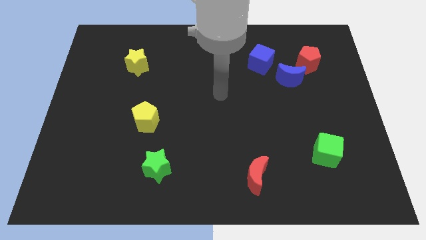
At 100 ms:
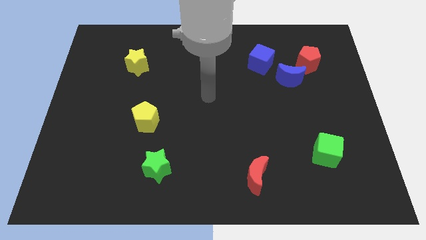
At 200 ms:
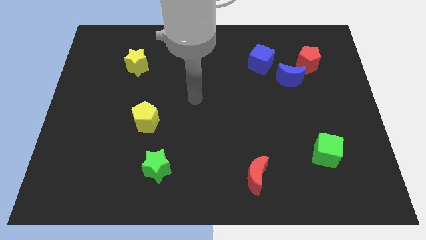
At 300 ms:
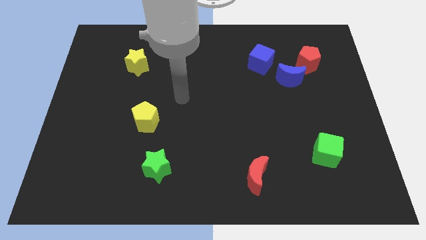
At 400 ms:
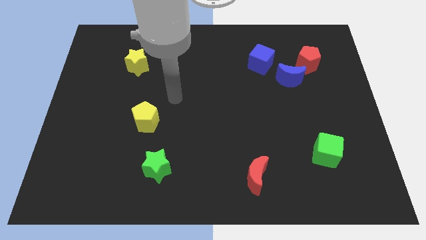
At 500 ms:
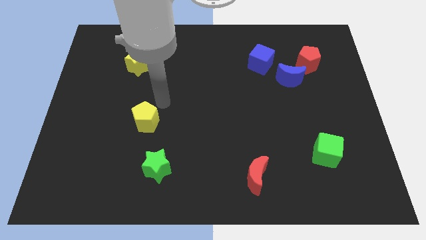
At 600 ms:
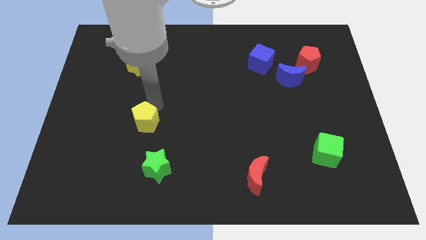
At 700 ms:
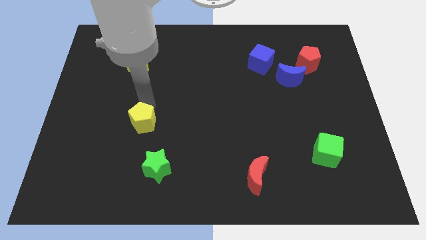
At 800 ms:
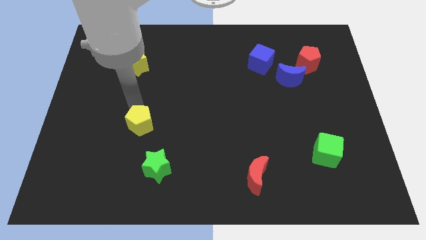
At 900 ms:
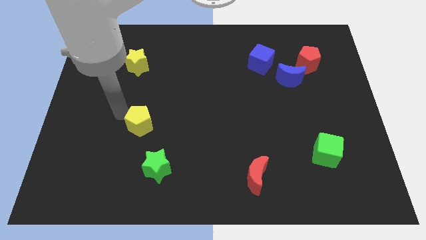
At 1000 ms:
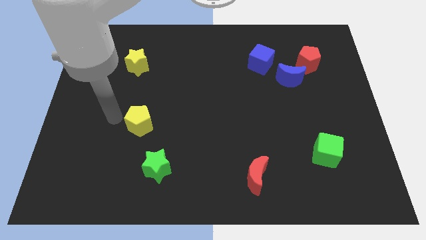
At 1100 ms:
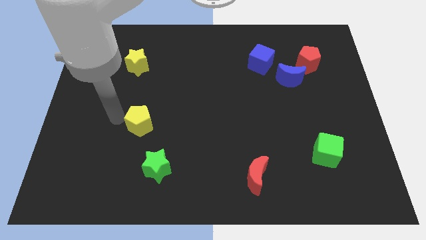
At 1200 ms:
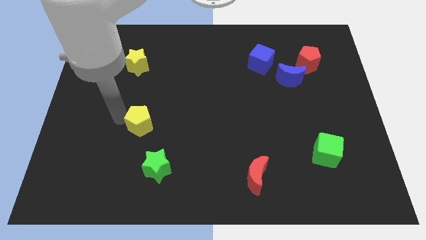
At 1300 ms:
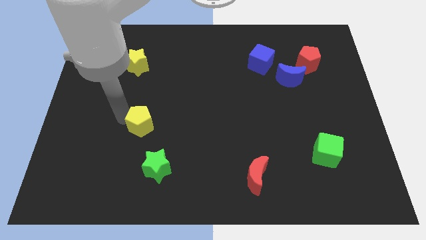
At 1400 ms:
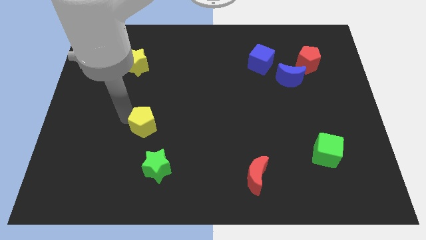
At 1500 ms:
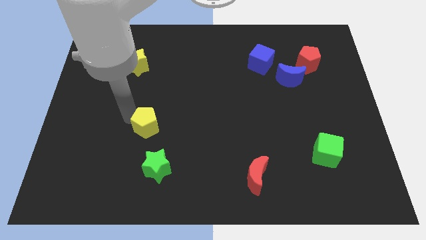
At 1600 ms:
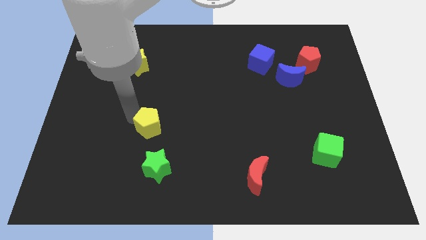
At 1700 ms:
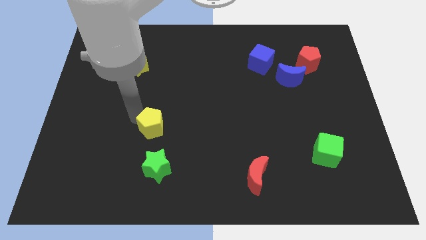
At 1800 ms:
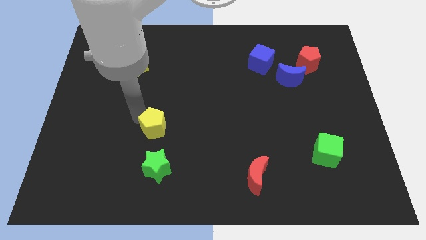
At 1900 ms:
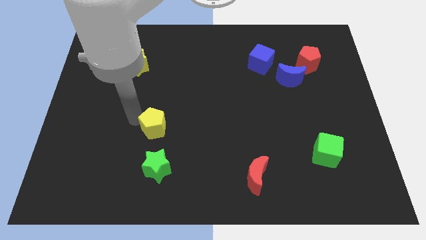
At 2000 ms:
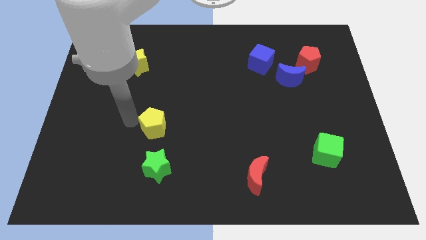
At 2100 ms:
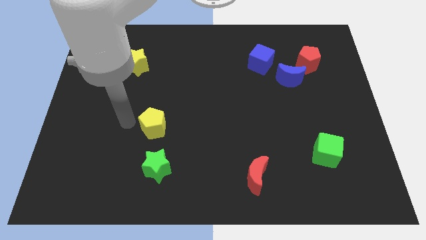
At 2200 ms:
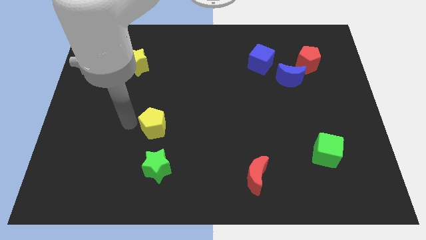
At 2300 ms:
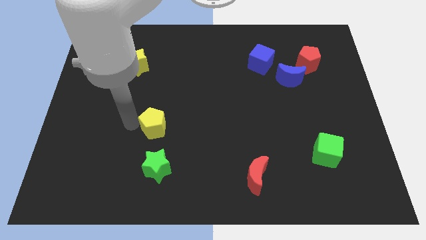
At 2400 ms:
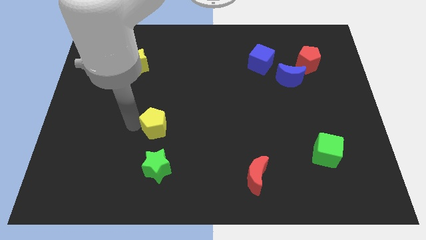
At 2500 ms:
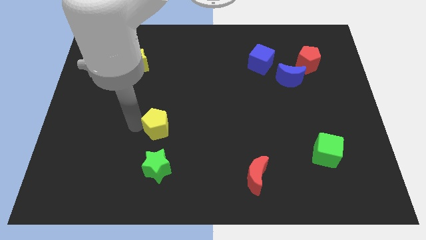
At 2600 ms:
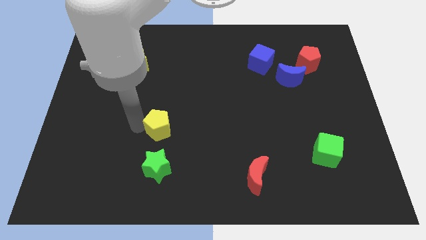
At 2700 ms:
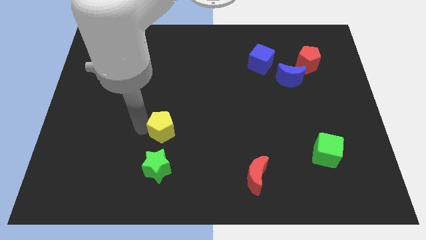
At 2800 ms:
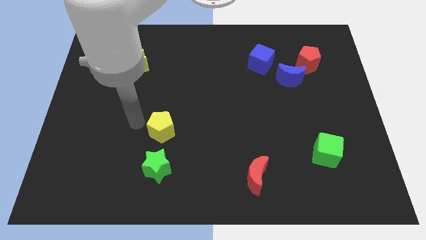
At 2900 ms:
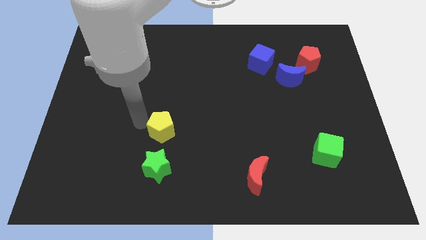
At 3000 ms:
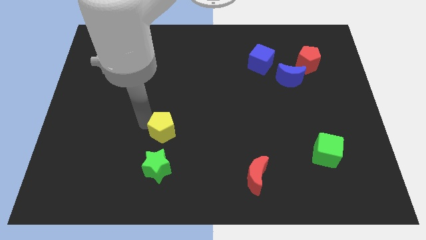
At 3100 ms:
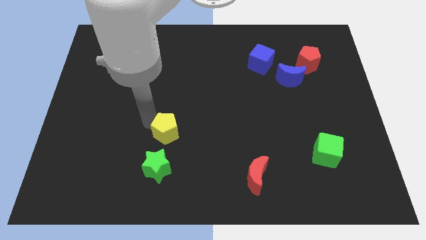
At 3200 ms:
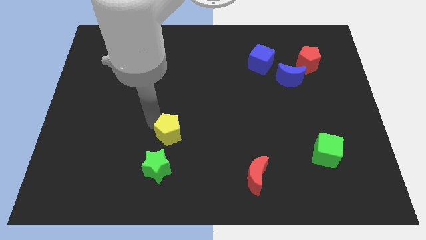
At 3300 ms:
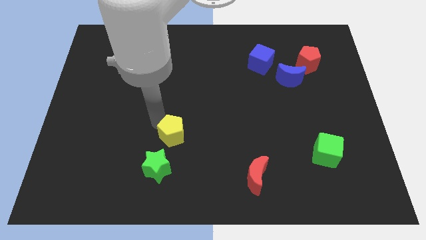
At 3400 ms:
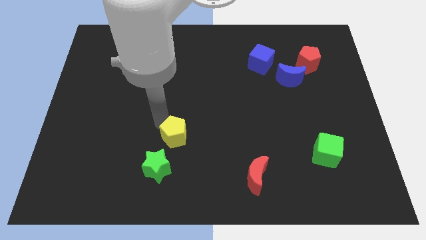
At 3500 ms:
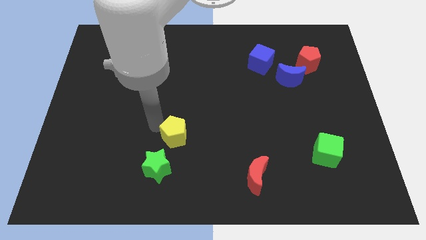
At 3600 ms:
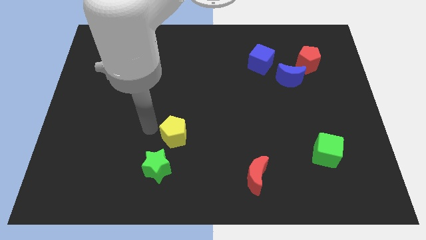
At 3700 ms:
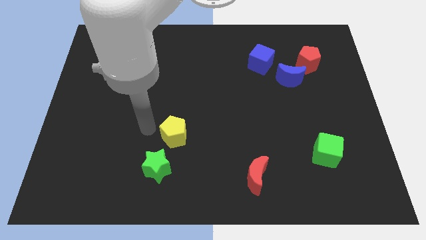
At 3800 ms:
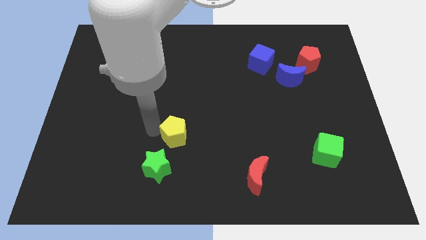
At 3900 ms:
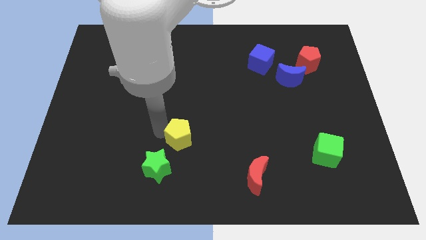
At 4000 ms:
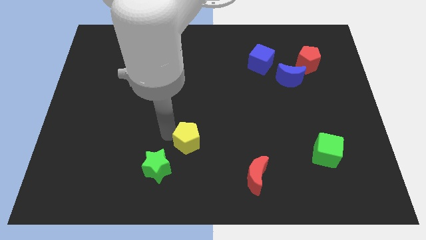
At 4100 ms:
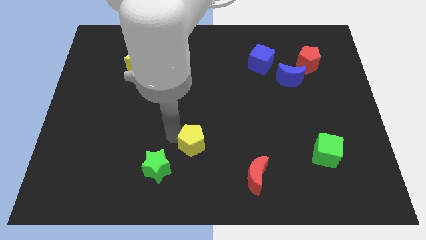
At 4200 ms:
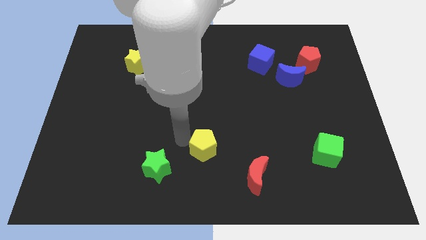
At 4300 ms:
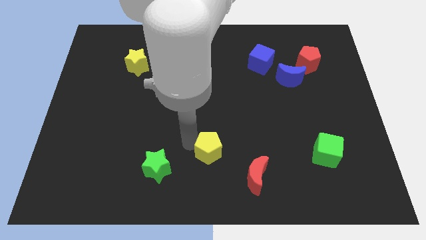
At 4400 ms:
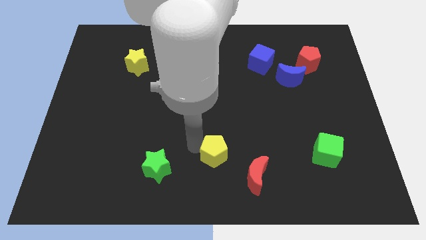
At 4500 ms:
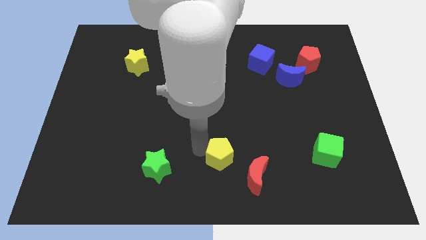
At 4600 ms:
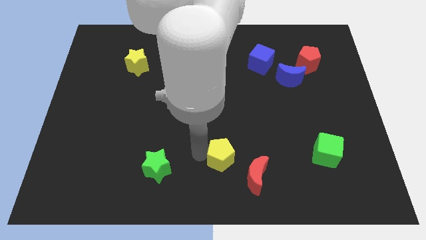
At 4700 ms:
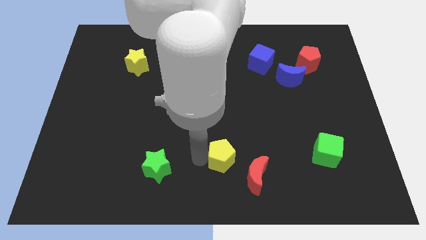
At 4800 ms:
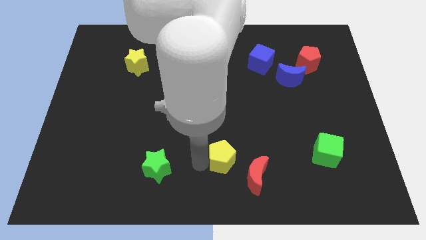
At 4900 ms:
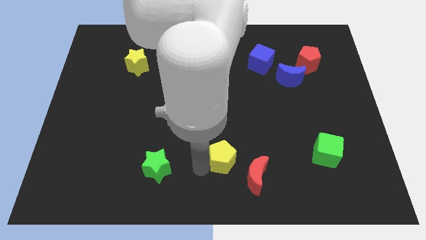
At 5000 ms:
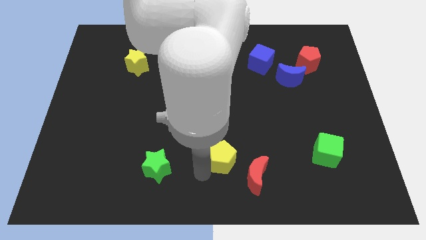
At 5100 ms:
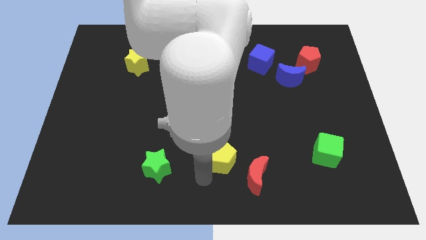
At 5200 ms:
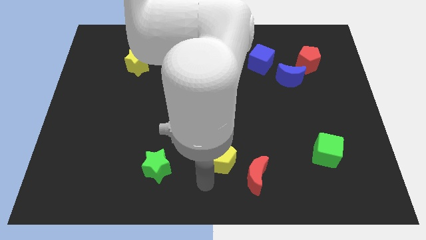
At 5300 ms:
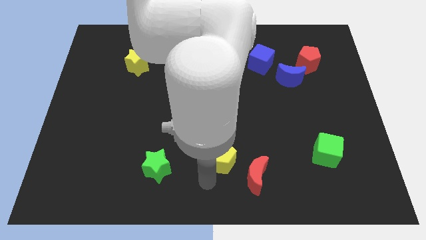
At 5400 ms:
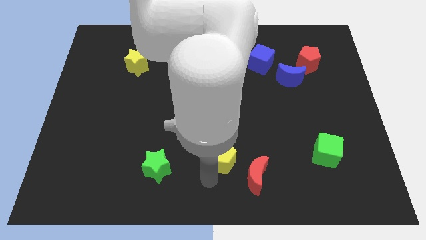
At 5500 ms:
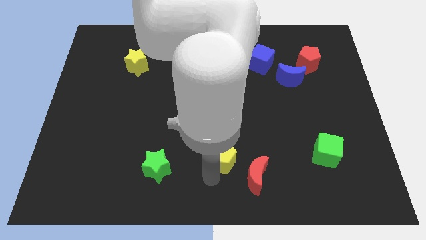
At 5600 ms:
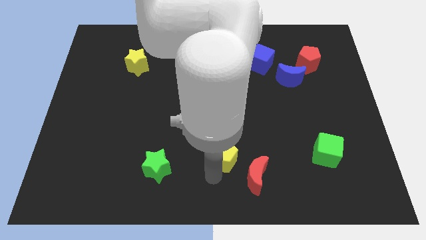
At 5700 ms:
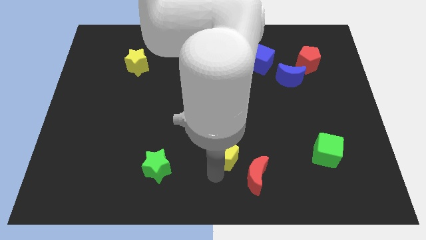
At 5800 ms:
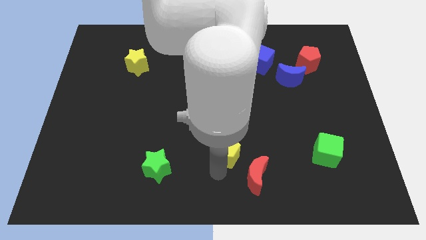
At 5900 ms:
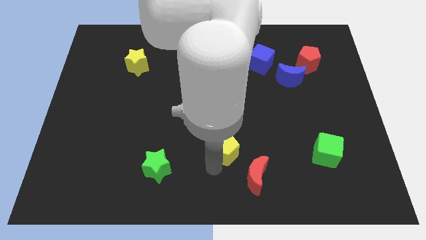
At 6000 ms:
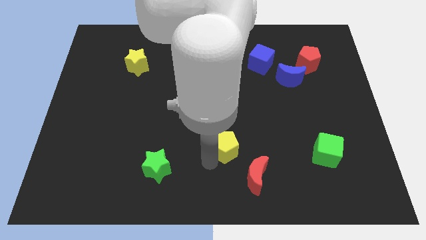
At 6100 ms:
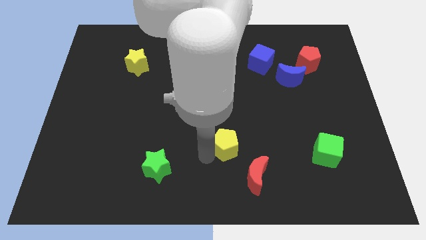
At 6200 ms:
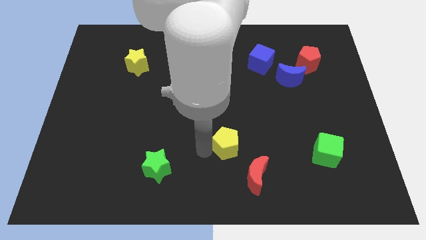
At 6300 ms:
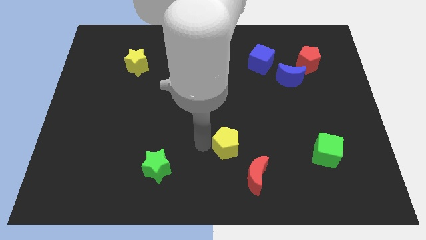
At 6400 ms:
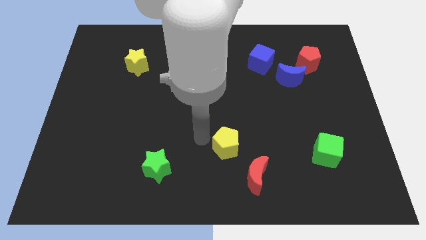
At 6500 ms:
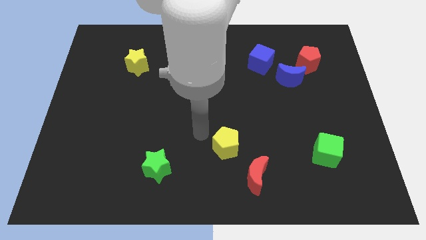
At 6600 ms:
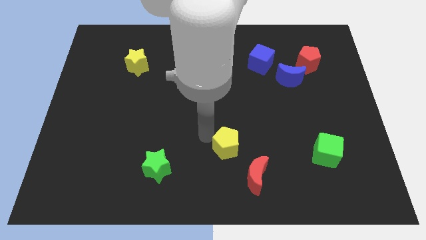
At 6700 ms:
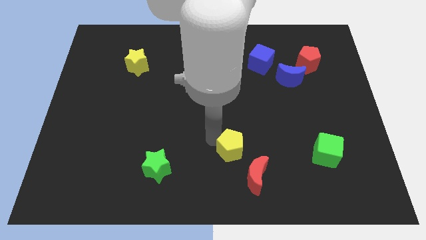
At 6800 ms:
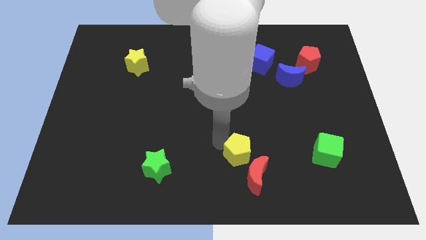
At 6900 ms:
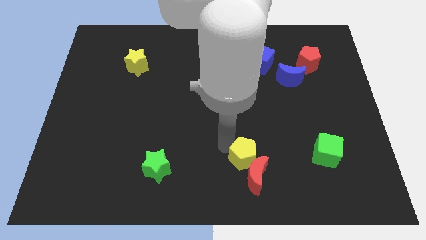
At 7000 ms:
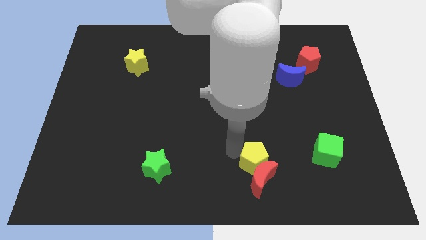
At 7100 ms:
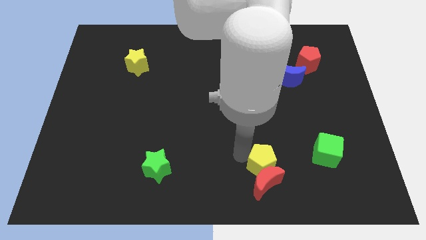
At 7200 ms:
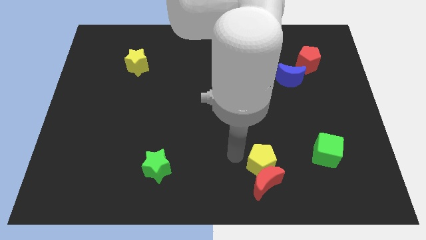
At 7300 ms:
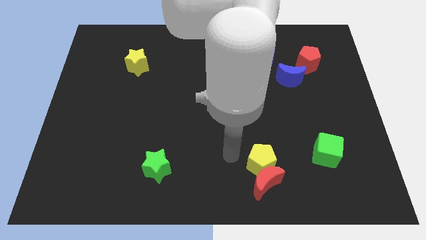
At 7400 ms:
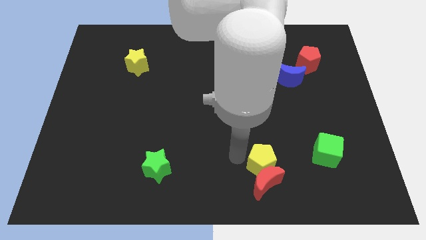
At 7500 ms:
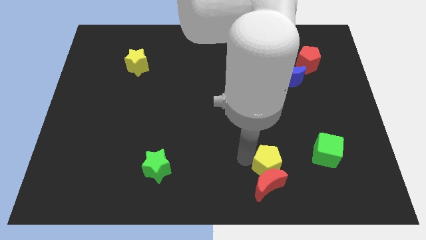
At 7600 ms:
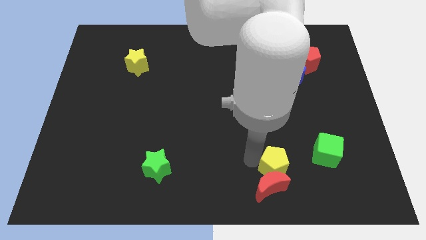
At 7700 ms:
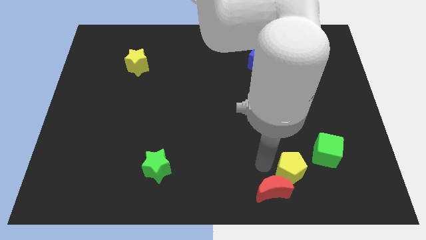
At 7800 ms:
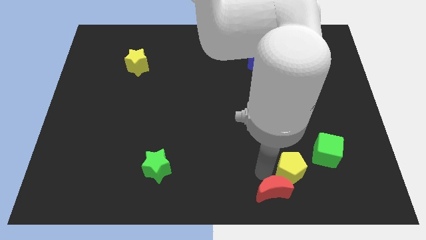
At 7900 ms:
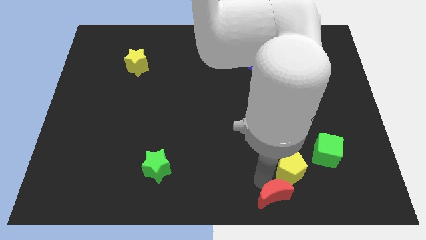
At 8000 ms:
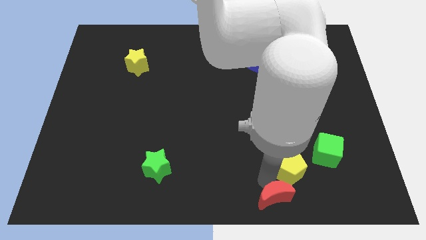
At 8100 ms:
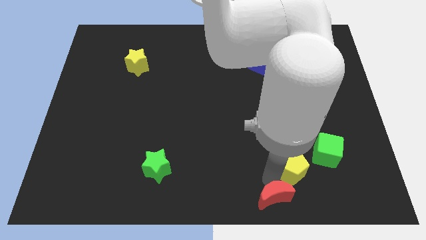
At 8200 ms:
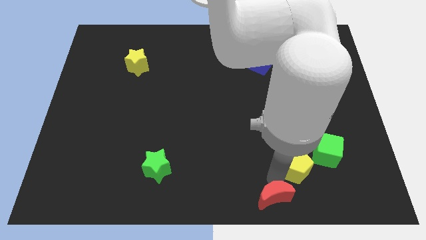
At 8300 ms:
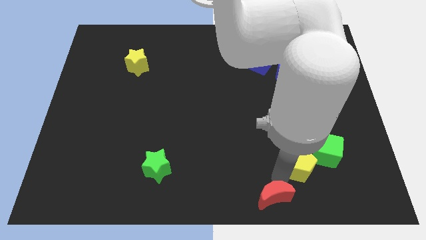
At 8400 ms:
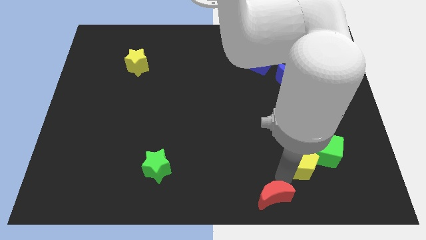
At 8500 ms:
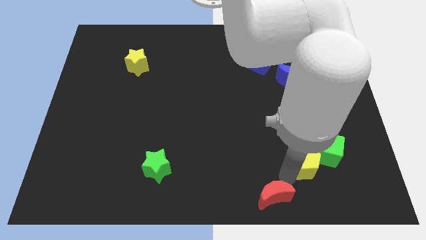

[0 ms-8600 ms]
slide the yellow pentagon towards the green cube
